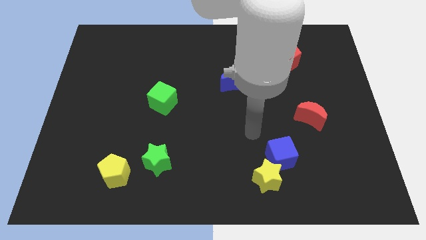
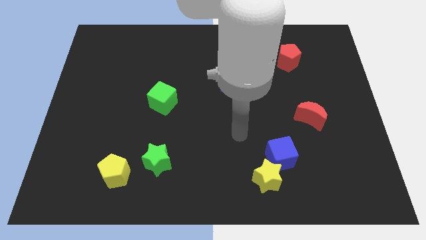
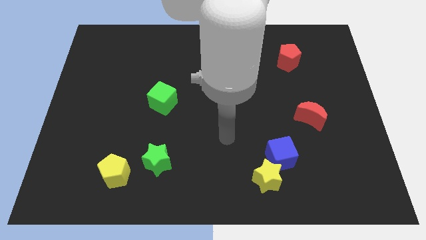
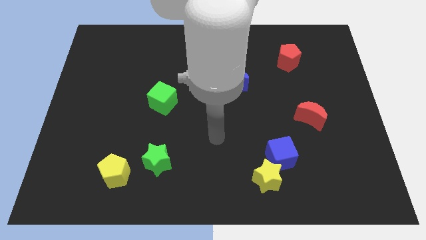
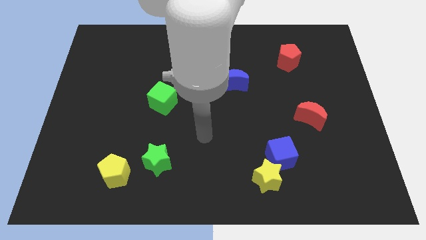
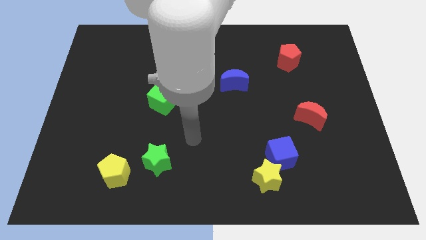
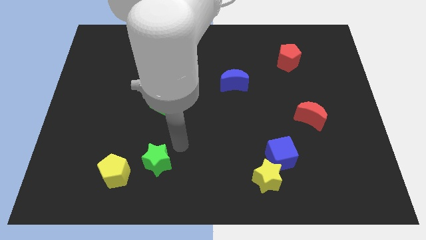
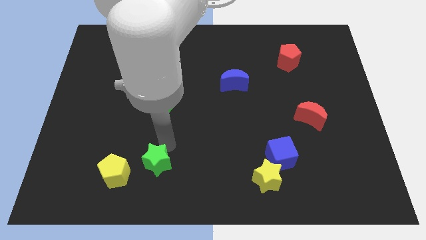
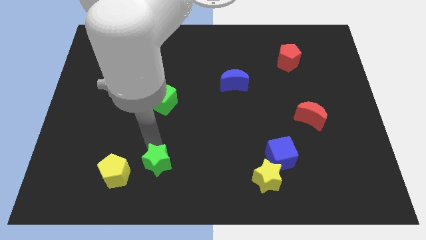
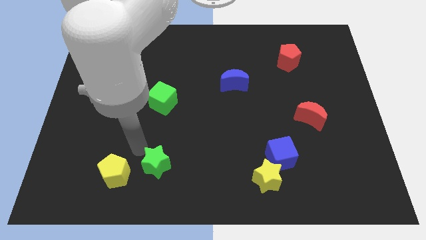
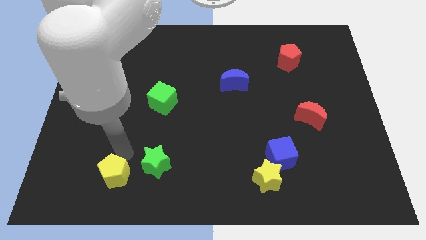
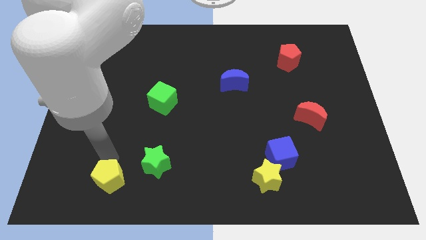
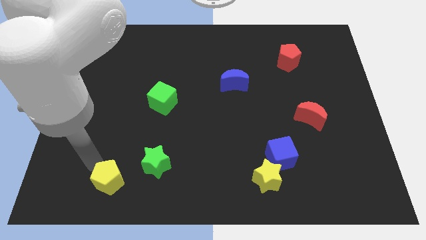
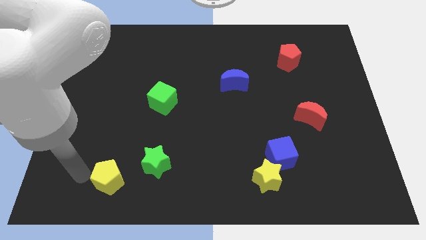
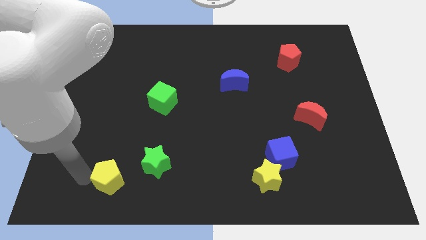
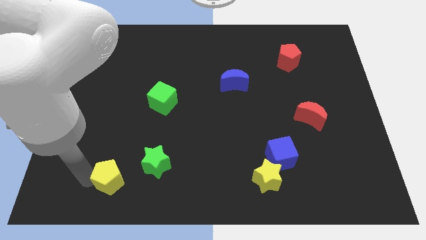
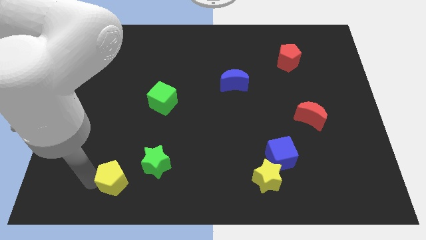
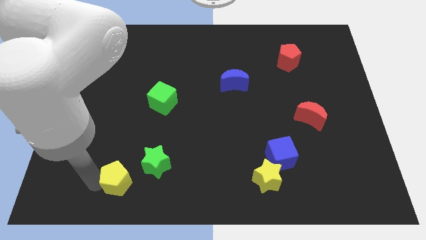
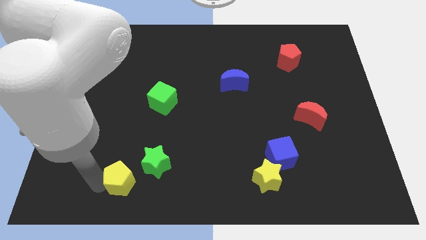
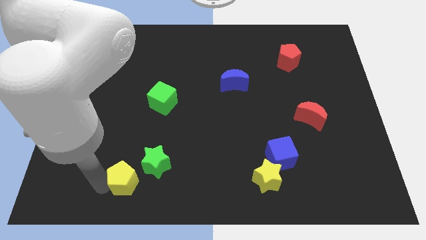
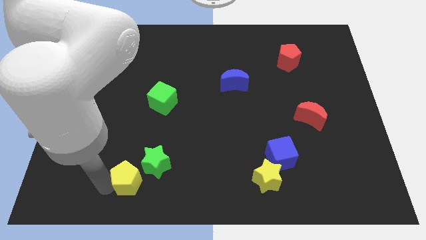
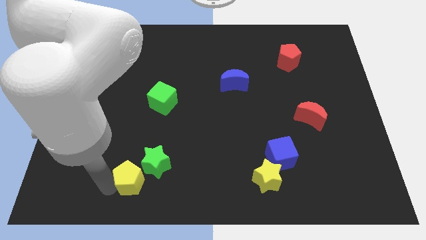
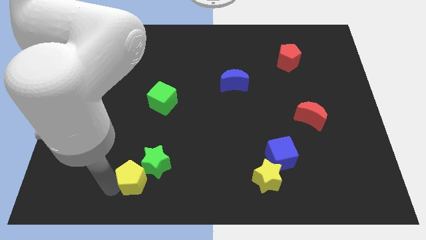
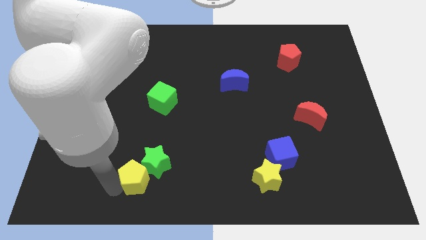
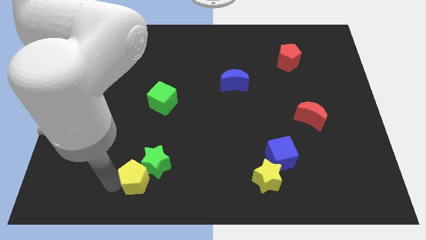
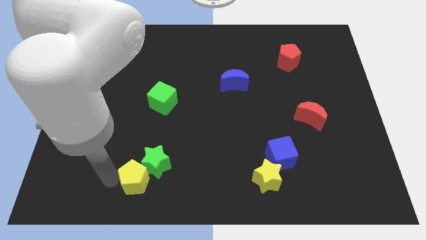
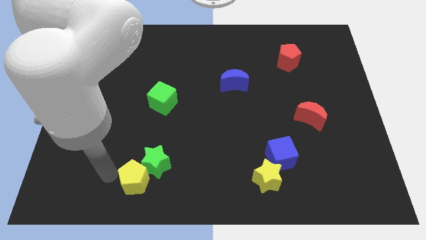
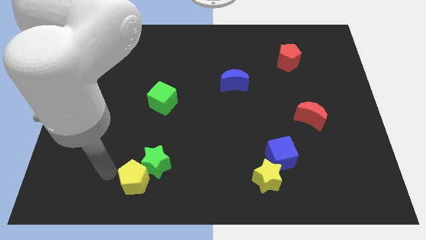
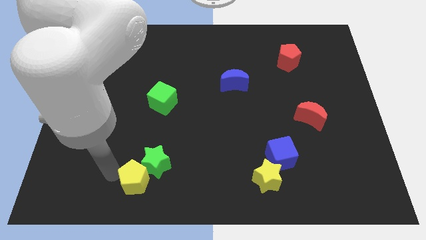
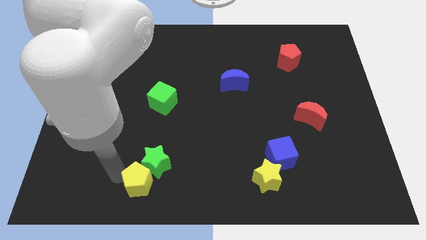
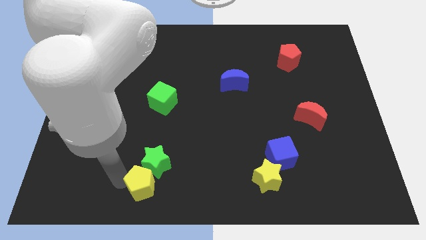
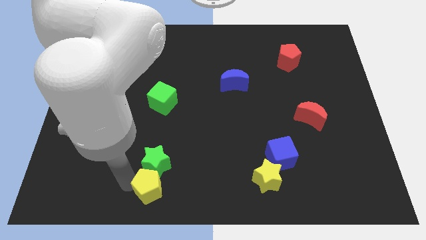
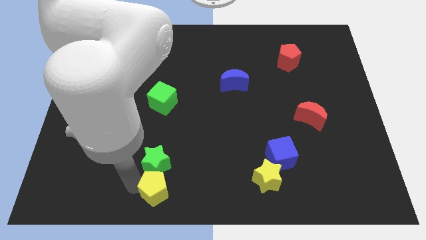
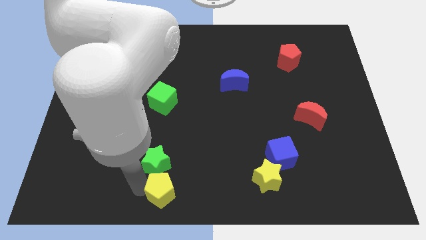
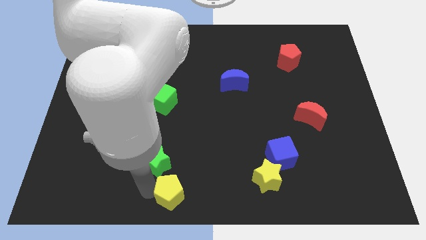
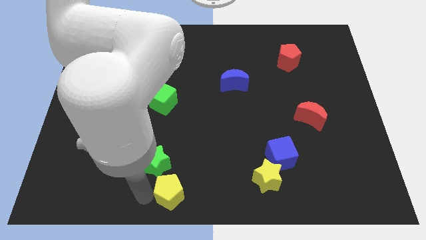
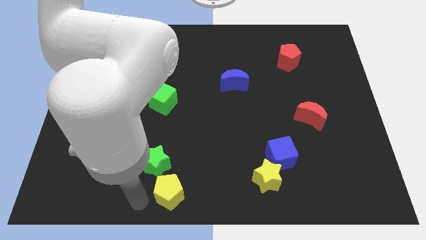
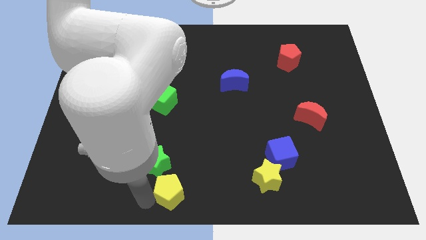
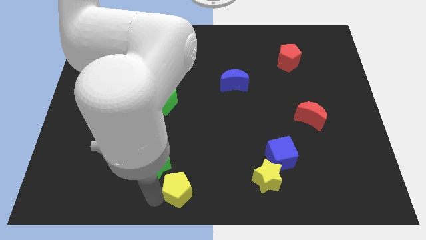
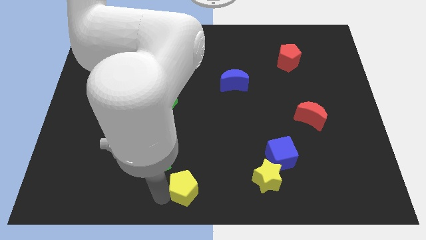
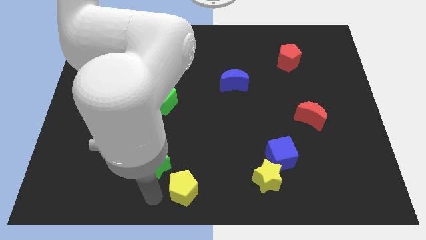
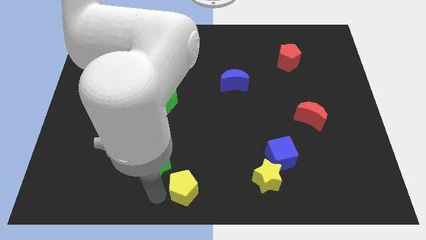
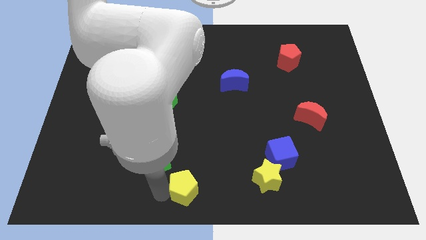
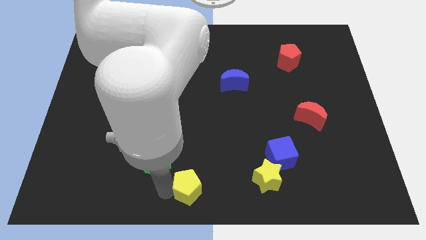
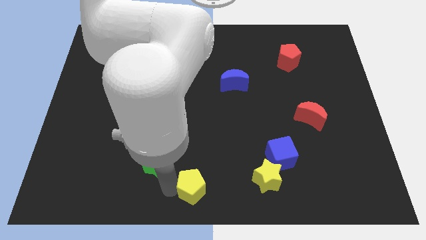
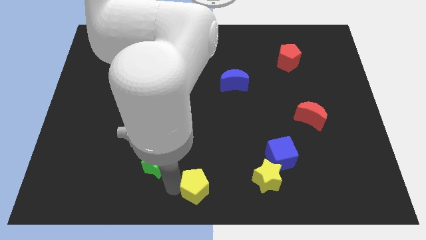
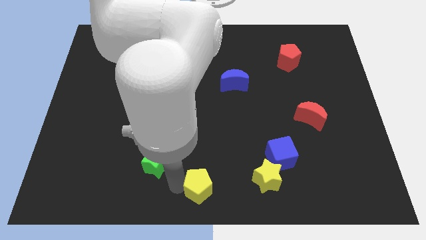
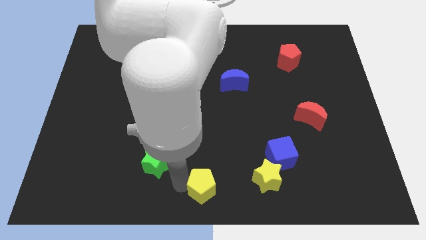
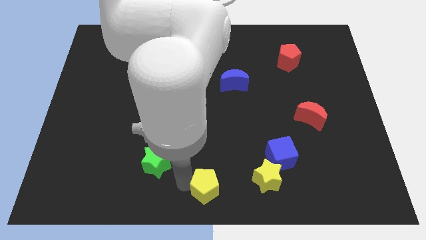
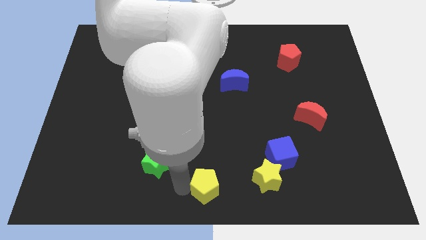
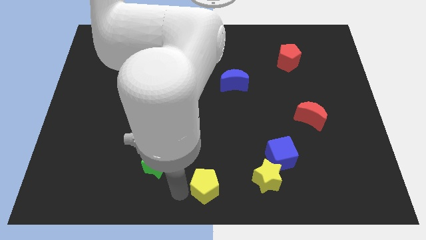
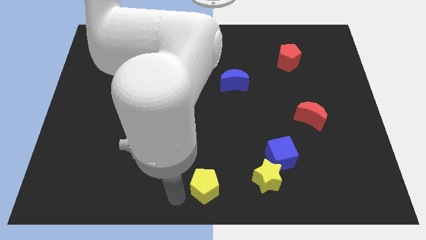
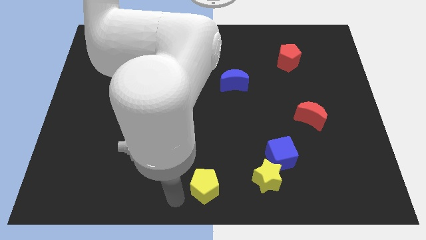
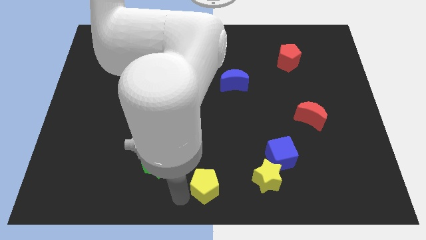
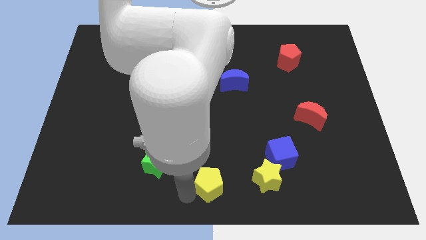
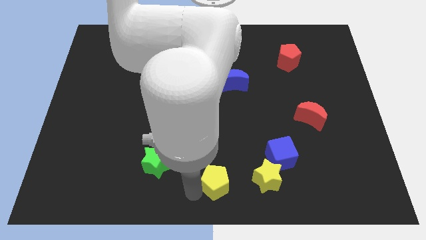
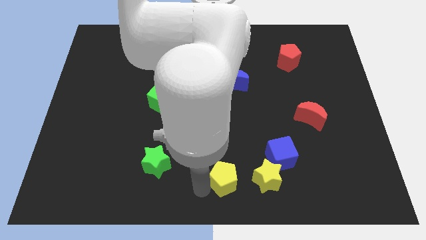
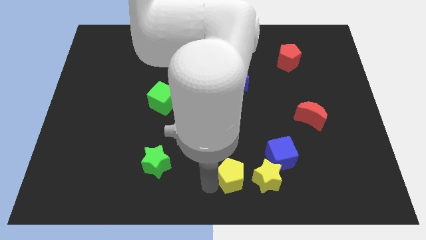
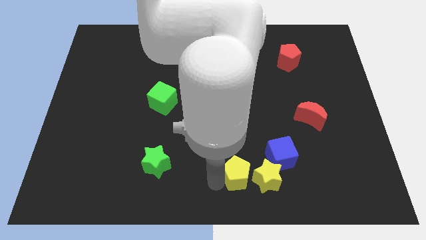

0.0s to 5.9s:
slide the yellow pentagon to the yellow star

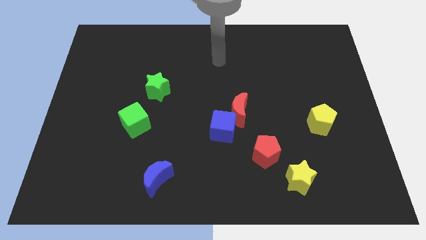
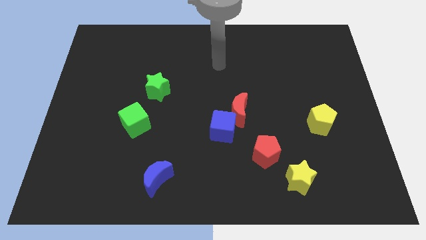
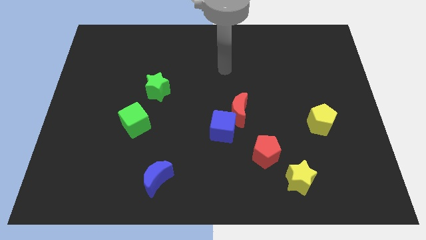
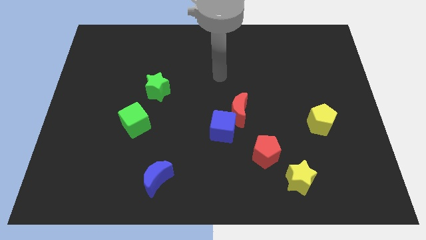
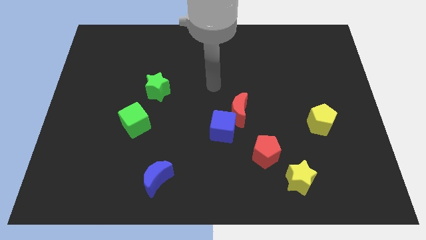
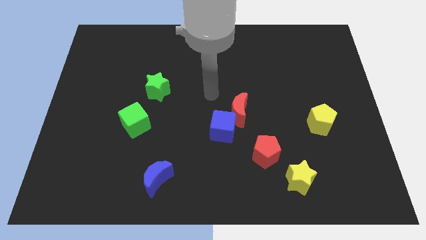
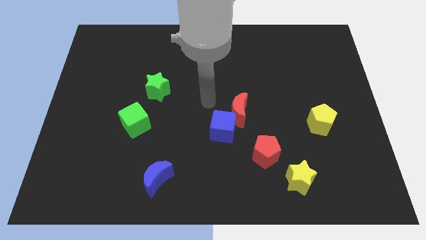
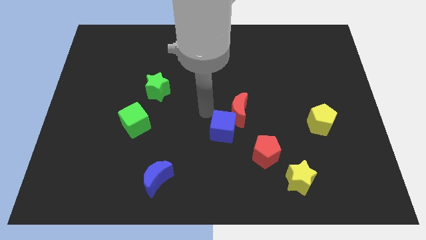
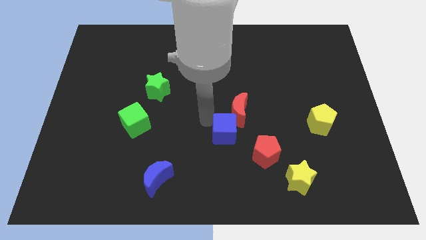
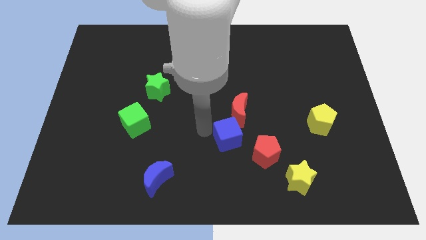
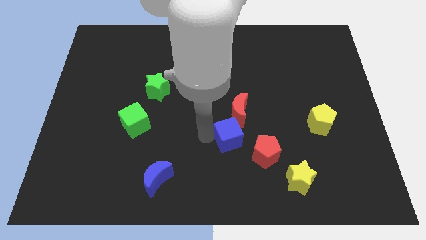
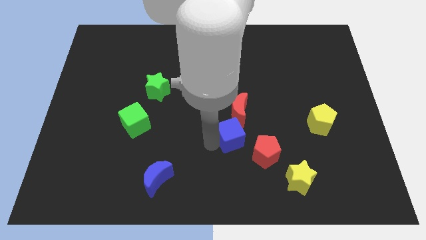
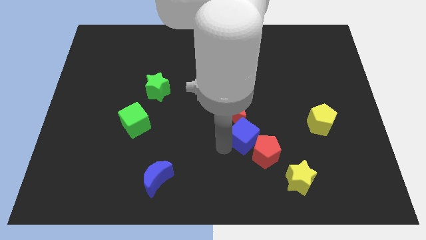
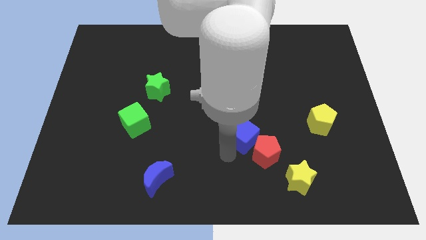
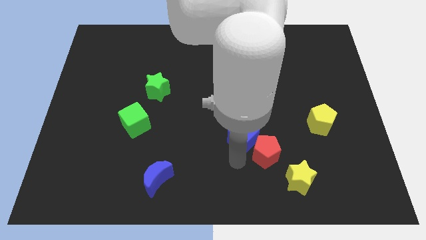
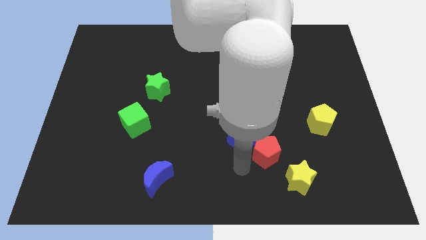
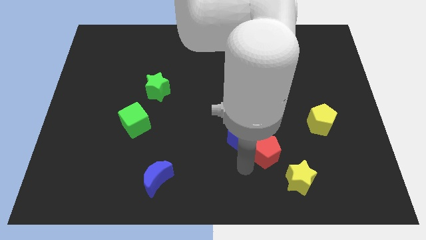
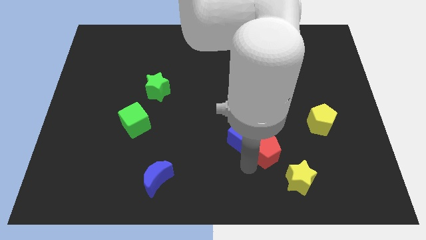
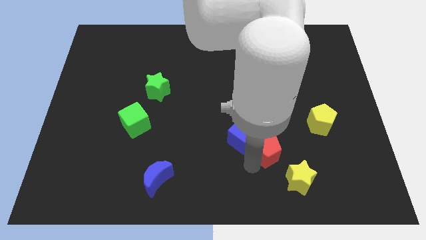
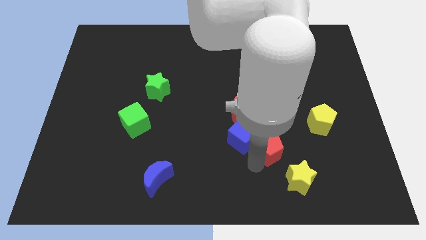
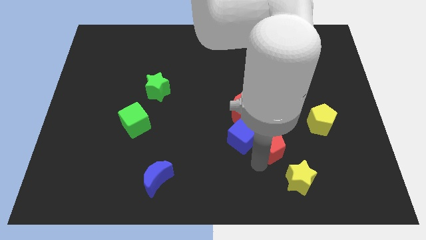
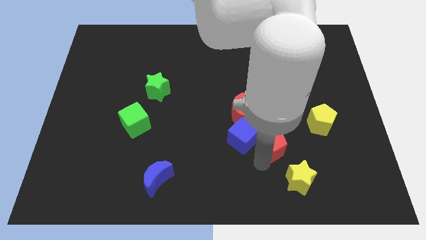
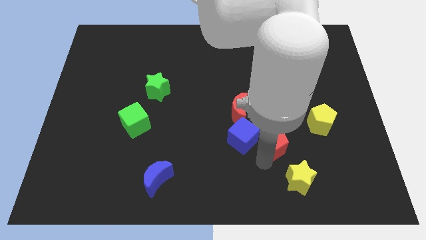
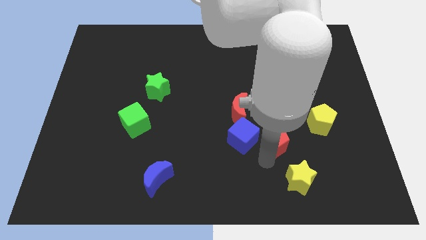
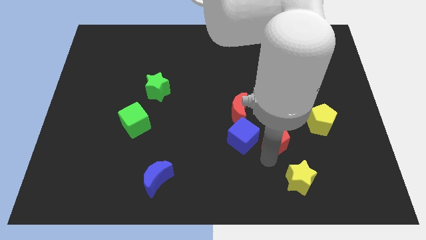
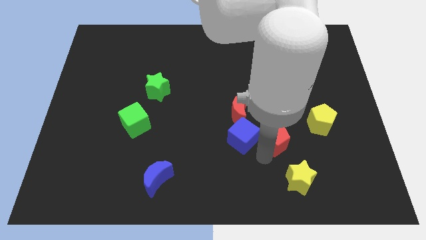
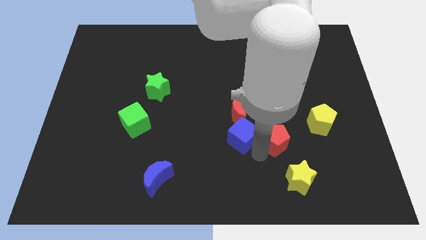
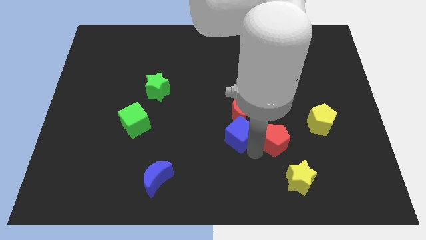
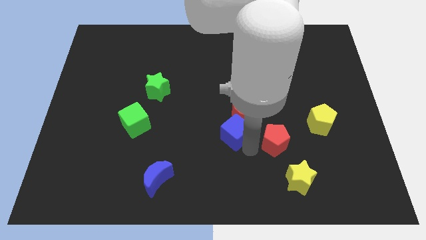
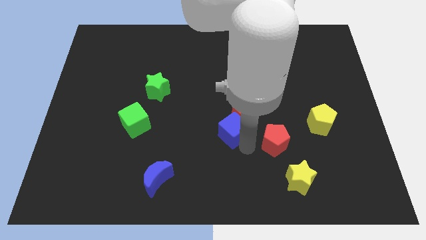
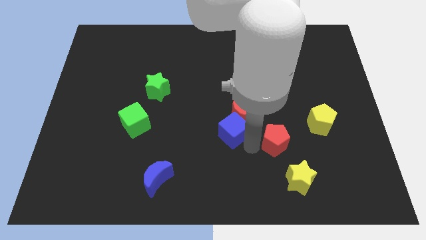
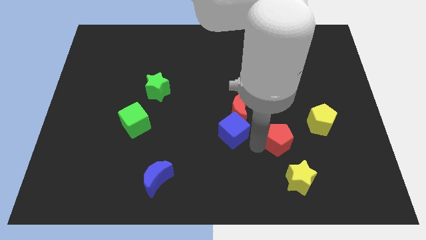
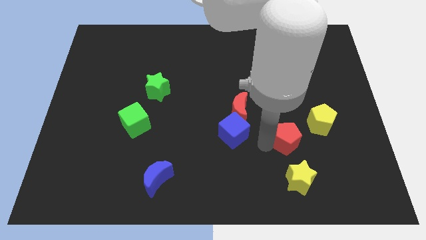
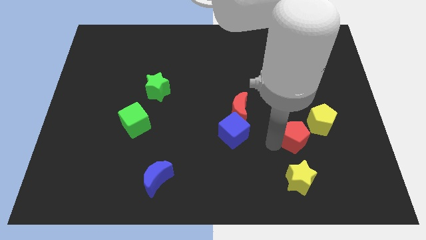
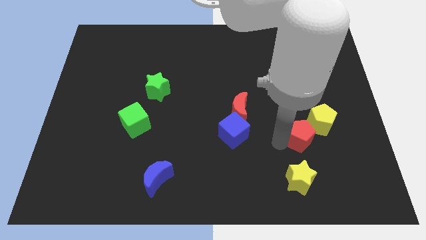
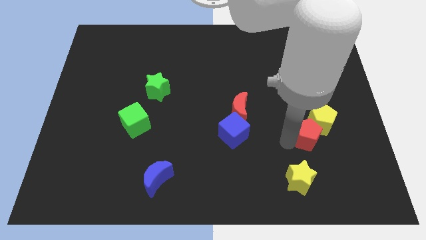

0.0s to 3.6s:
move the red pentagon next to the yellow pentagon
